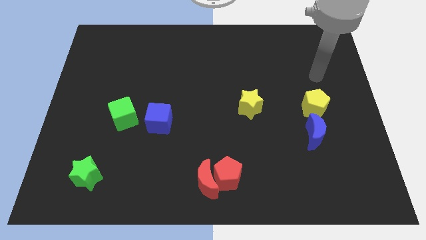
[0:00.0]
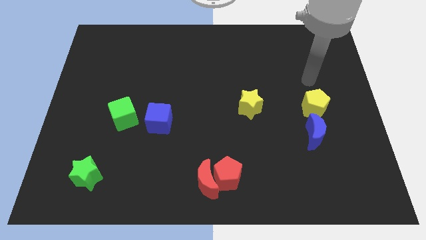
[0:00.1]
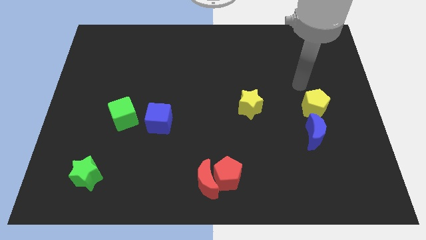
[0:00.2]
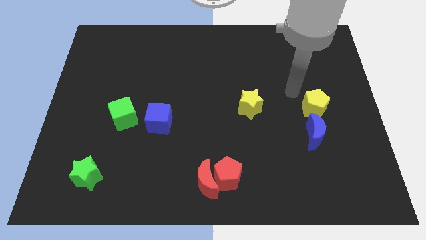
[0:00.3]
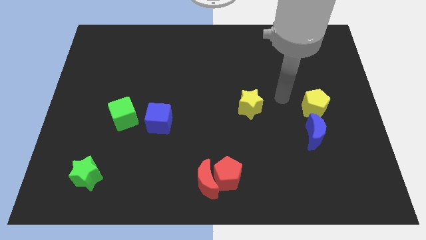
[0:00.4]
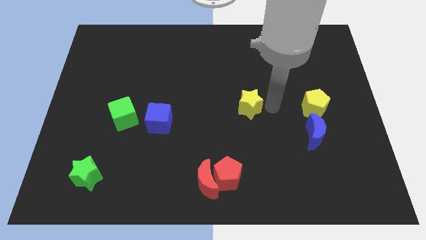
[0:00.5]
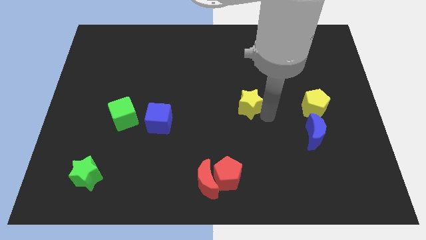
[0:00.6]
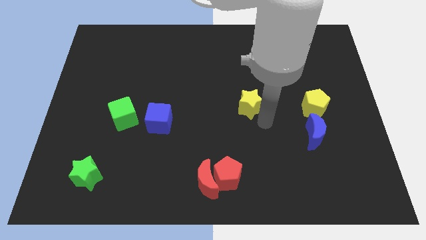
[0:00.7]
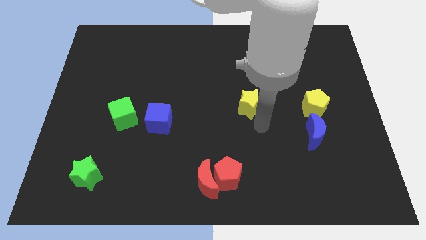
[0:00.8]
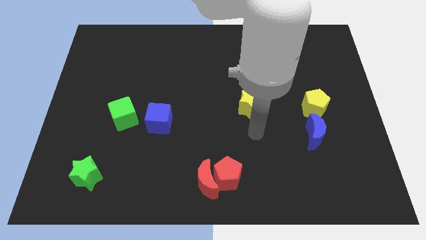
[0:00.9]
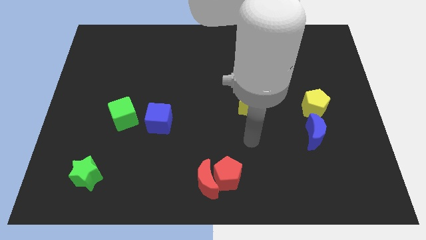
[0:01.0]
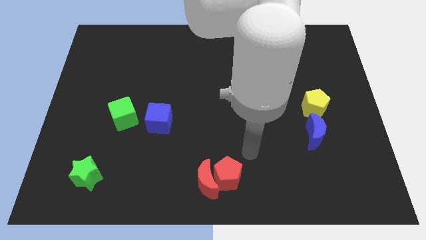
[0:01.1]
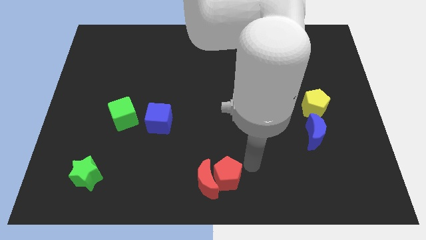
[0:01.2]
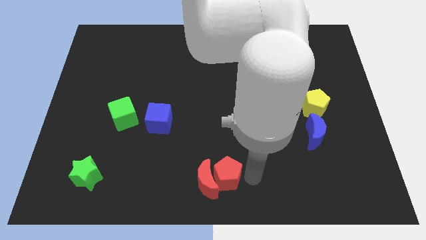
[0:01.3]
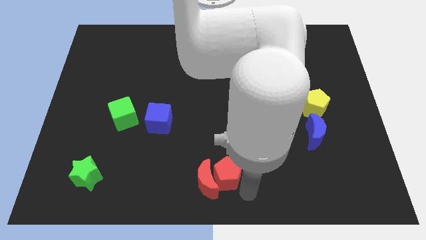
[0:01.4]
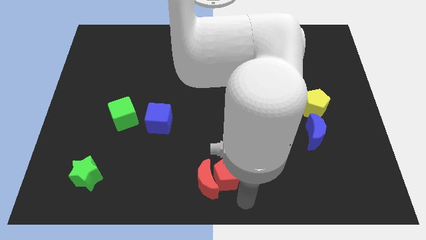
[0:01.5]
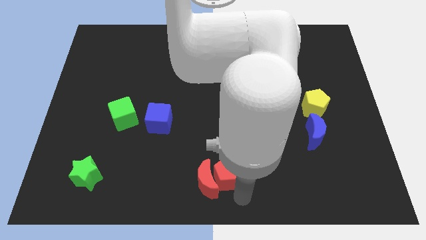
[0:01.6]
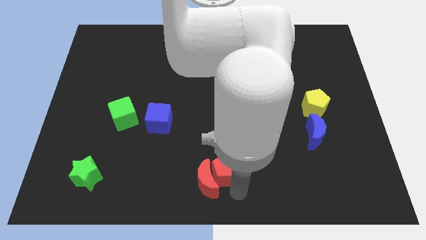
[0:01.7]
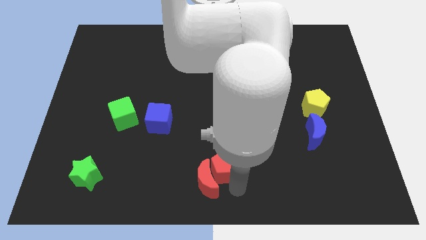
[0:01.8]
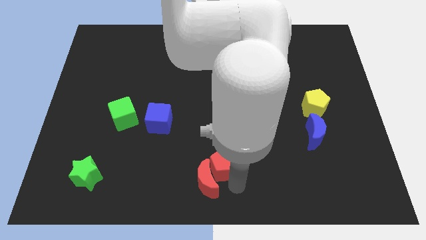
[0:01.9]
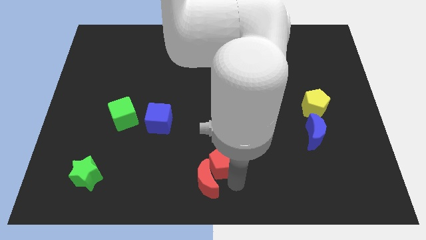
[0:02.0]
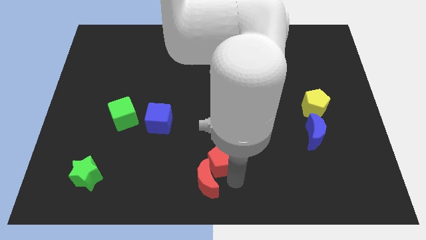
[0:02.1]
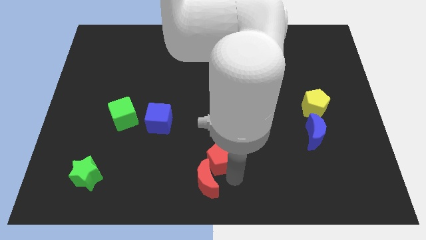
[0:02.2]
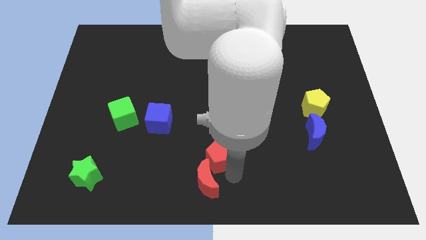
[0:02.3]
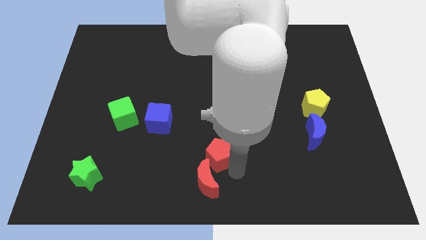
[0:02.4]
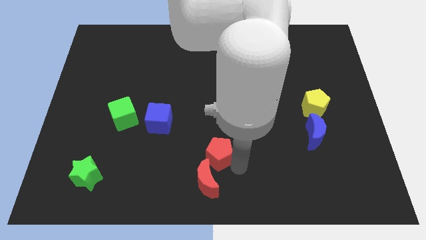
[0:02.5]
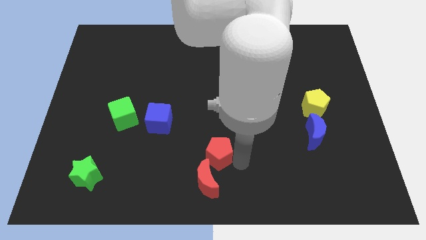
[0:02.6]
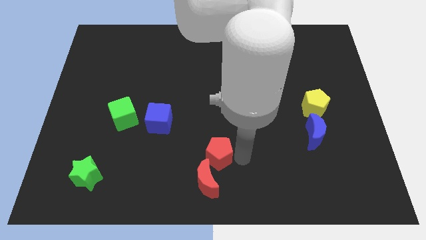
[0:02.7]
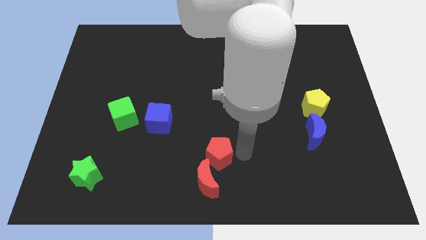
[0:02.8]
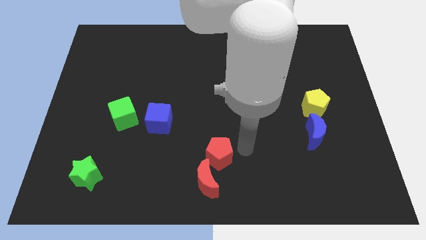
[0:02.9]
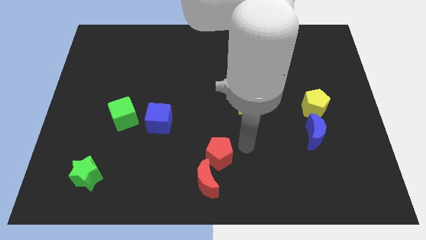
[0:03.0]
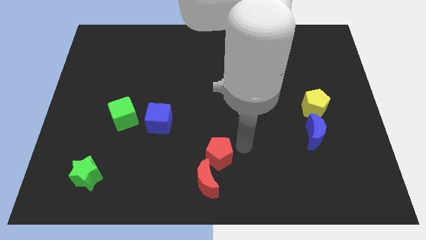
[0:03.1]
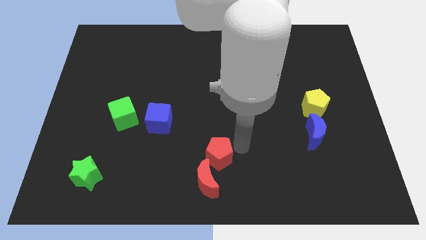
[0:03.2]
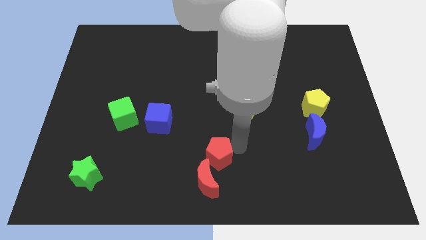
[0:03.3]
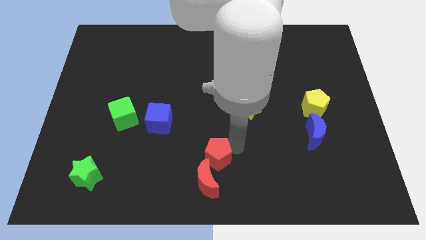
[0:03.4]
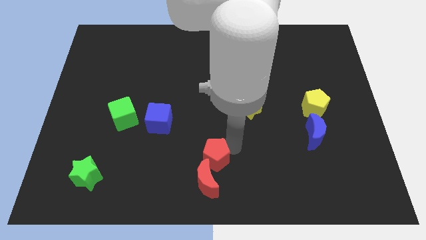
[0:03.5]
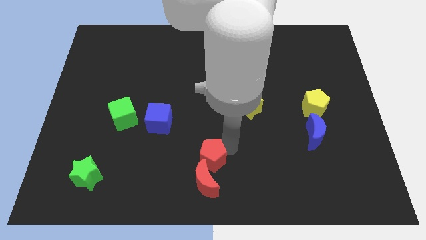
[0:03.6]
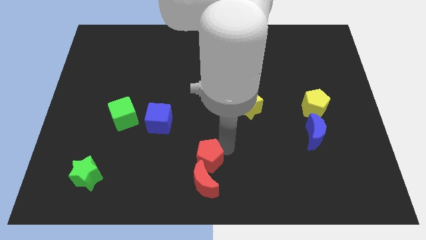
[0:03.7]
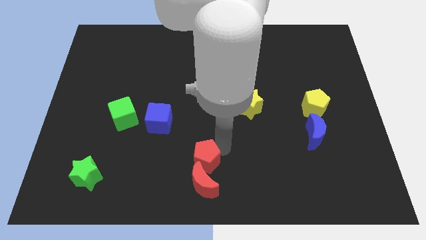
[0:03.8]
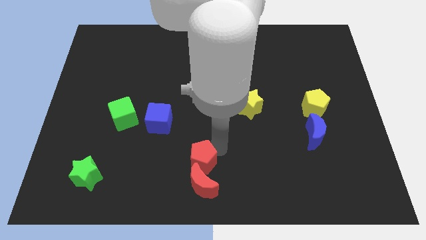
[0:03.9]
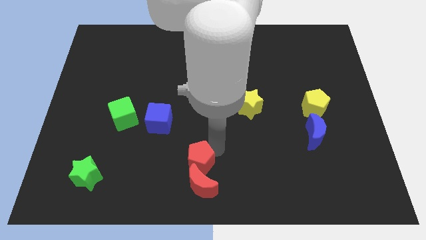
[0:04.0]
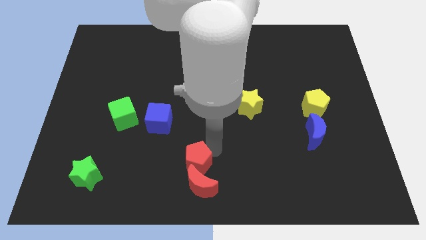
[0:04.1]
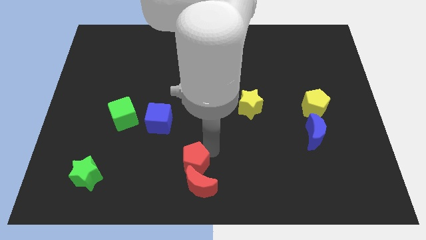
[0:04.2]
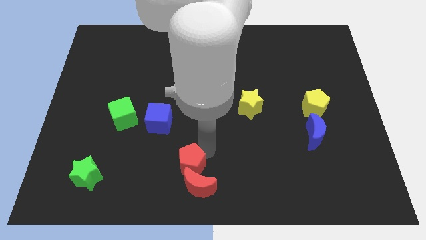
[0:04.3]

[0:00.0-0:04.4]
push the red pentagon a little left

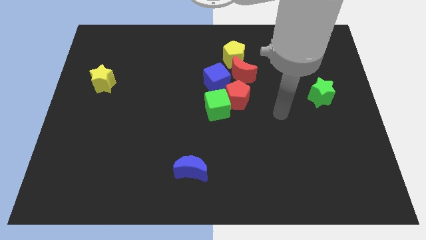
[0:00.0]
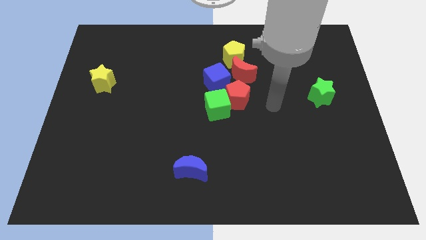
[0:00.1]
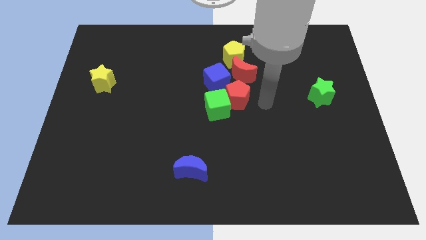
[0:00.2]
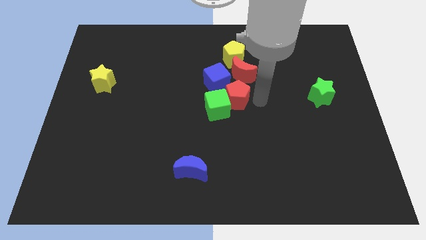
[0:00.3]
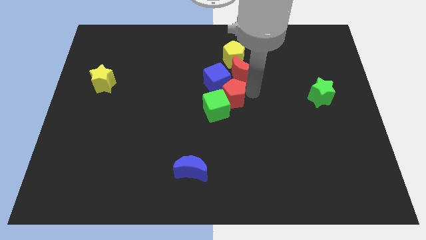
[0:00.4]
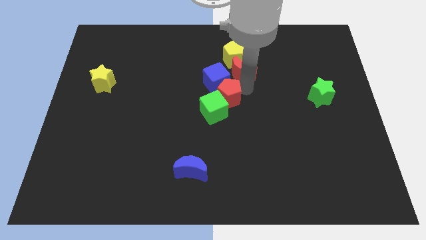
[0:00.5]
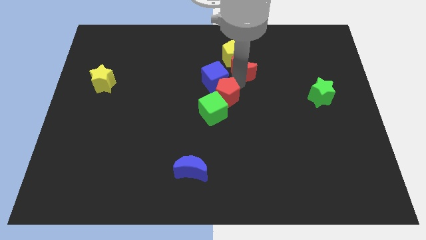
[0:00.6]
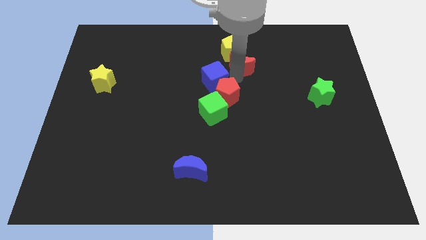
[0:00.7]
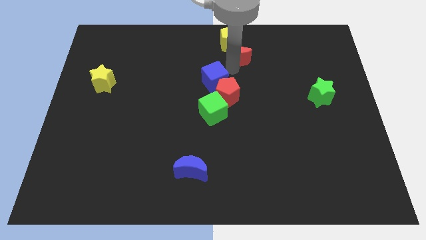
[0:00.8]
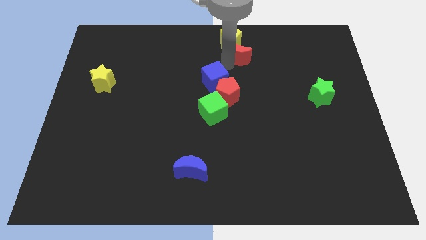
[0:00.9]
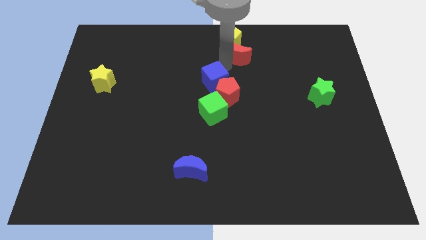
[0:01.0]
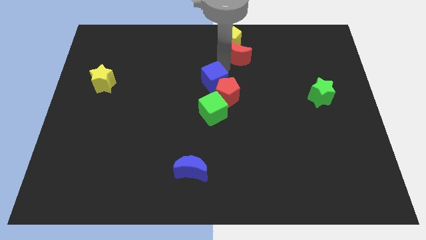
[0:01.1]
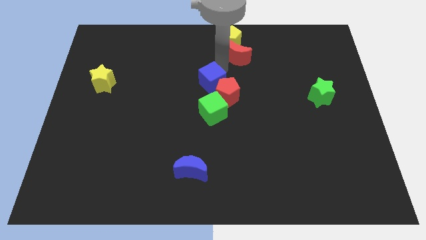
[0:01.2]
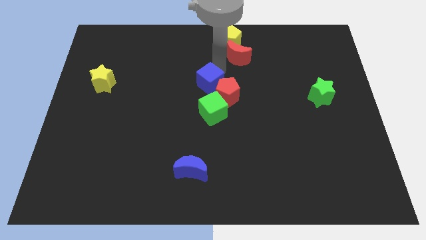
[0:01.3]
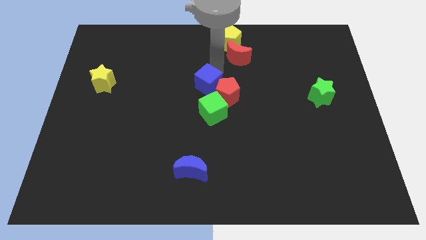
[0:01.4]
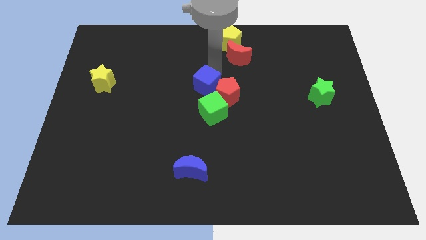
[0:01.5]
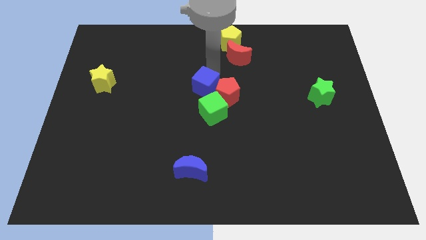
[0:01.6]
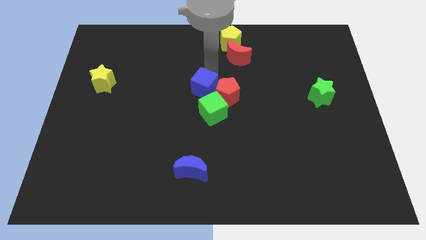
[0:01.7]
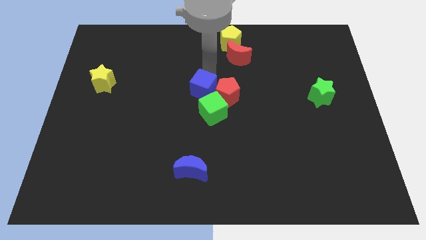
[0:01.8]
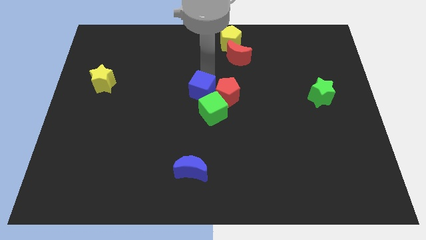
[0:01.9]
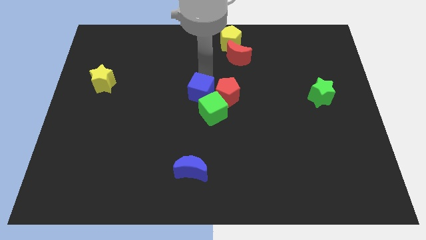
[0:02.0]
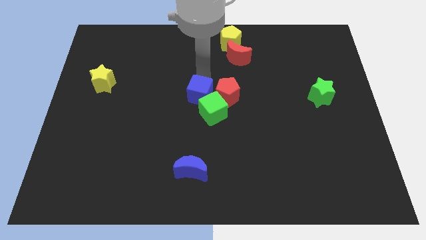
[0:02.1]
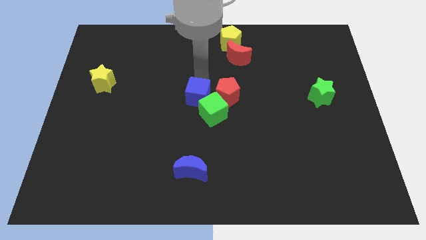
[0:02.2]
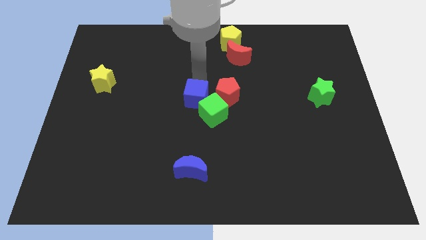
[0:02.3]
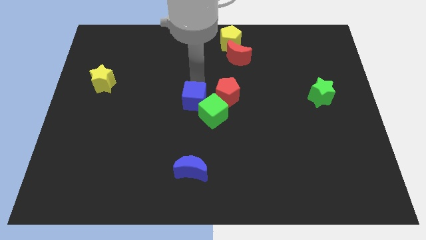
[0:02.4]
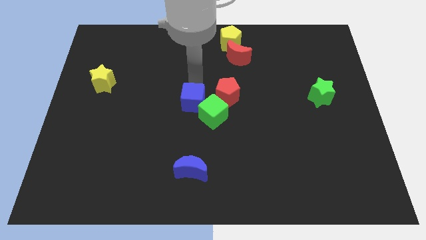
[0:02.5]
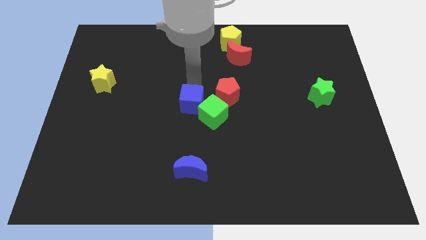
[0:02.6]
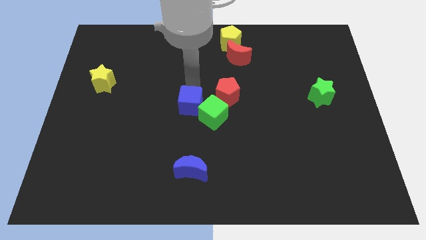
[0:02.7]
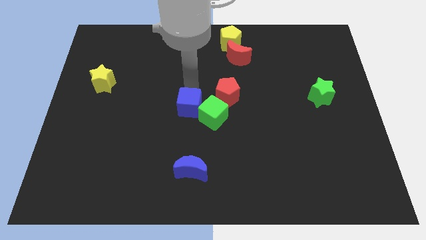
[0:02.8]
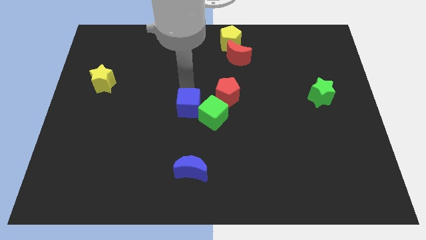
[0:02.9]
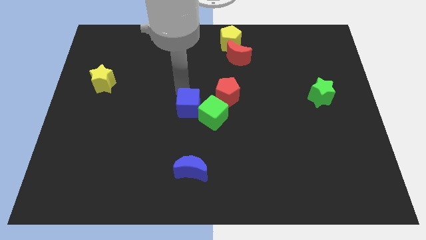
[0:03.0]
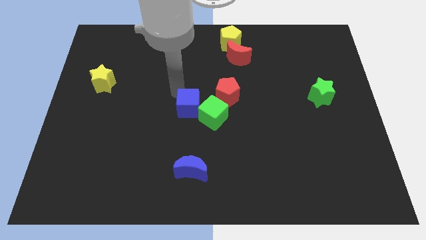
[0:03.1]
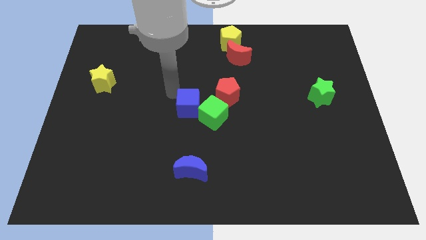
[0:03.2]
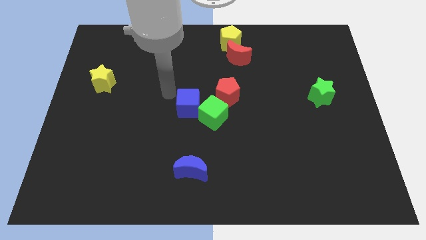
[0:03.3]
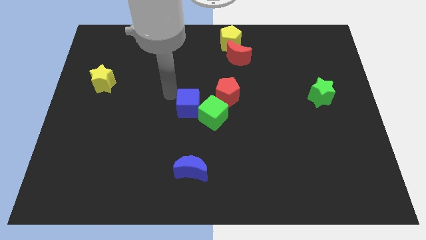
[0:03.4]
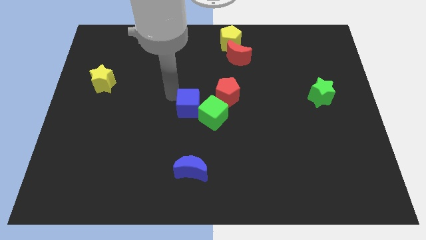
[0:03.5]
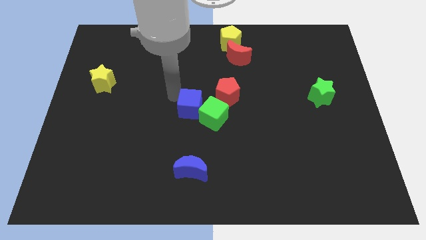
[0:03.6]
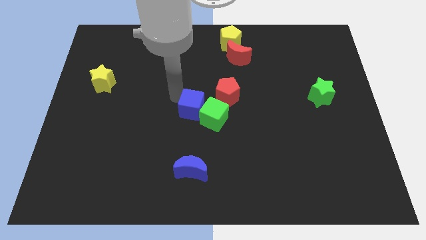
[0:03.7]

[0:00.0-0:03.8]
slightly slide the blue cube down
